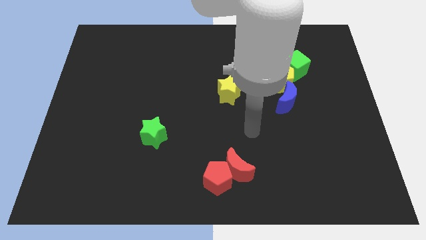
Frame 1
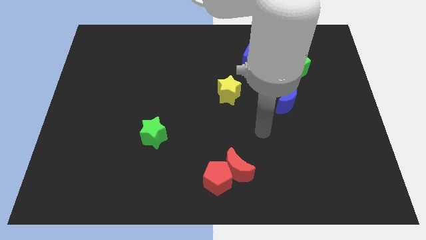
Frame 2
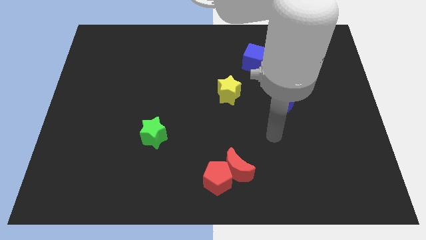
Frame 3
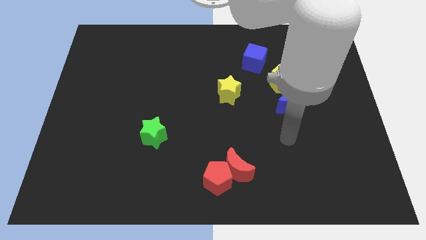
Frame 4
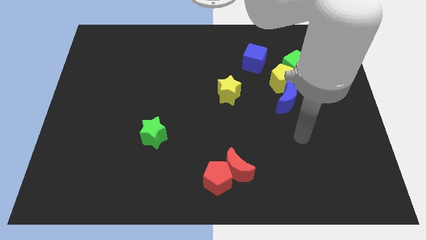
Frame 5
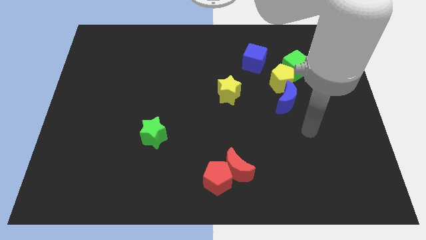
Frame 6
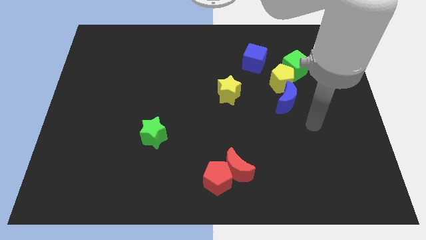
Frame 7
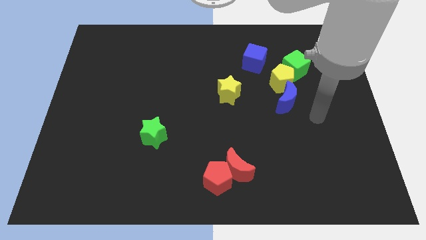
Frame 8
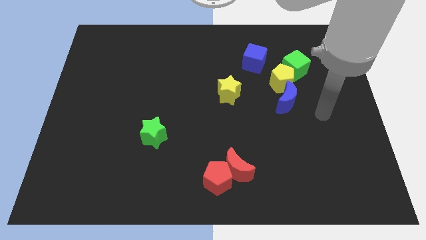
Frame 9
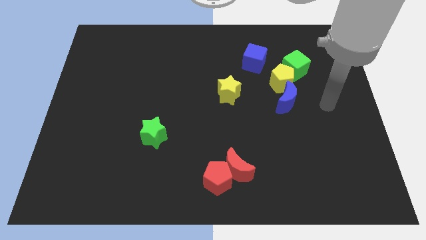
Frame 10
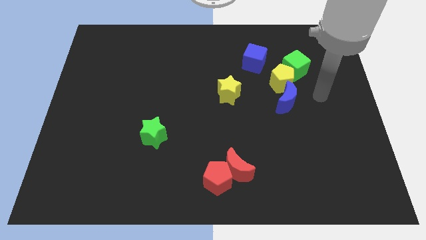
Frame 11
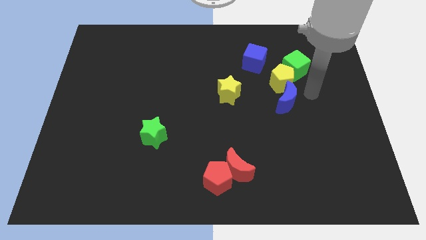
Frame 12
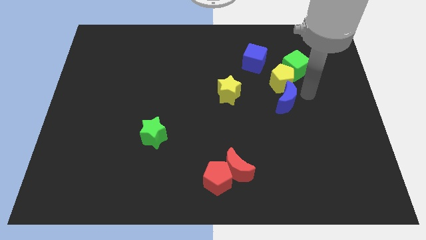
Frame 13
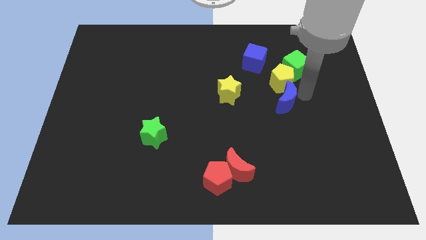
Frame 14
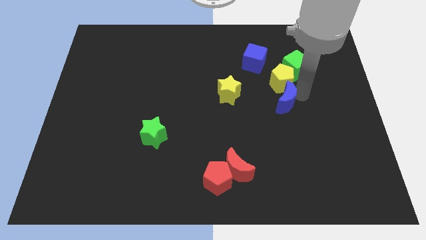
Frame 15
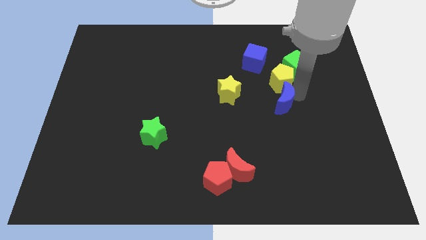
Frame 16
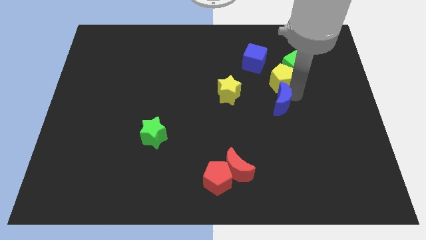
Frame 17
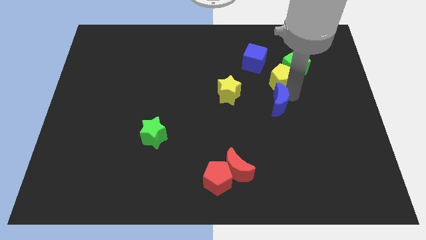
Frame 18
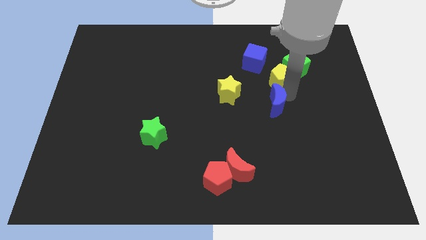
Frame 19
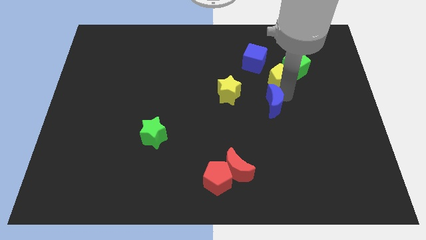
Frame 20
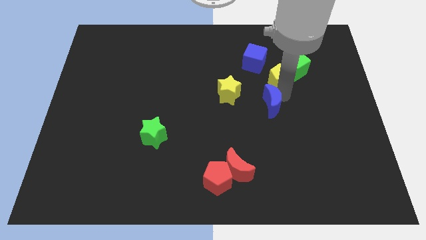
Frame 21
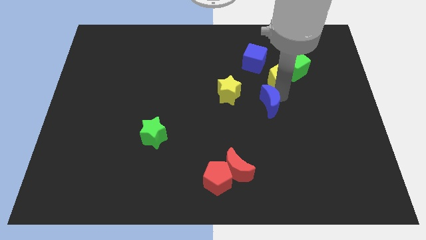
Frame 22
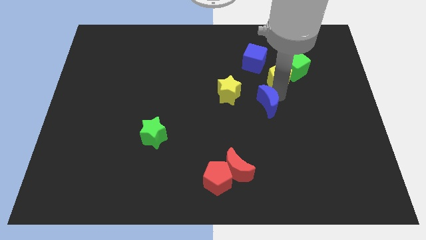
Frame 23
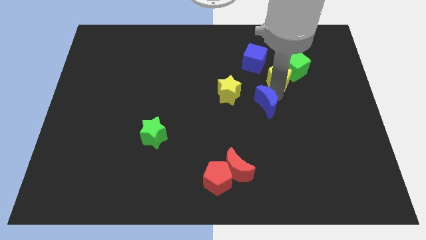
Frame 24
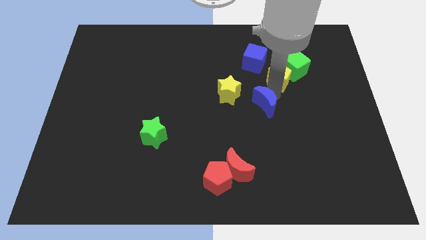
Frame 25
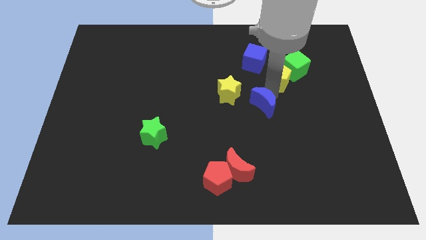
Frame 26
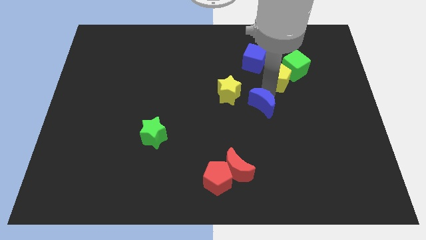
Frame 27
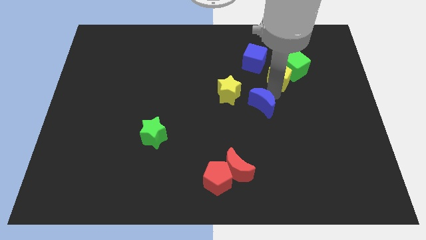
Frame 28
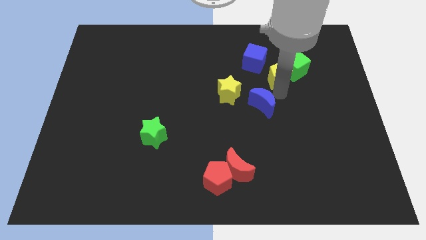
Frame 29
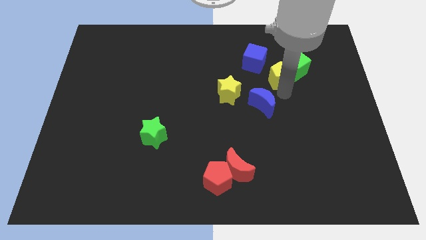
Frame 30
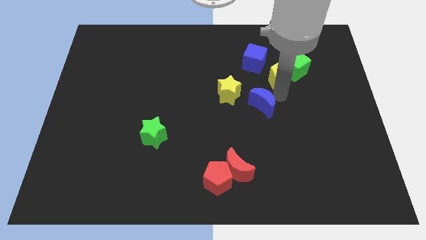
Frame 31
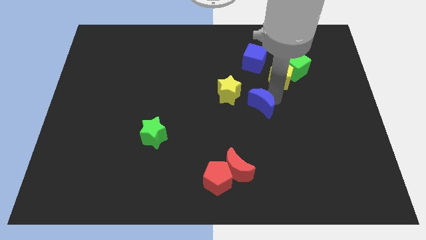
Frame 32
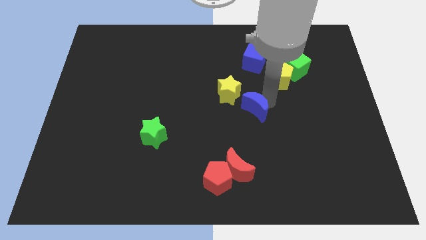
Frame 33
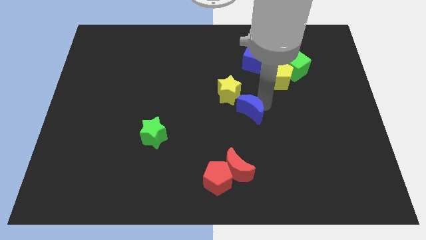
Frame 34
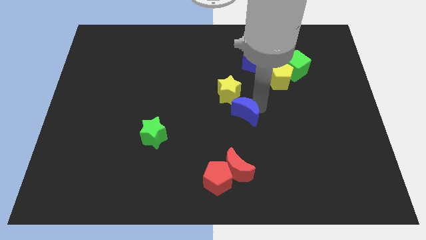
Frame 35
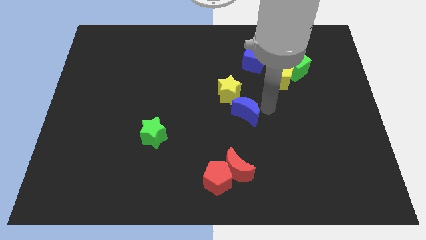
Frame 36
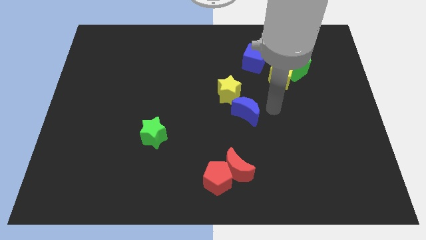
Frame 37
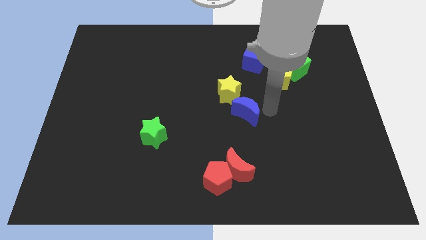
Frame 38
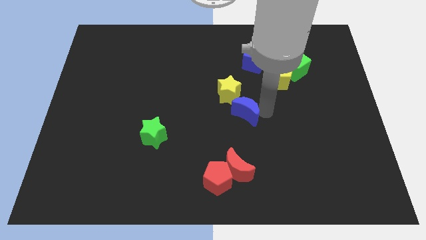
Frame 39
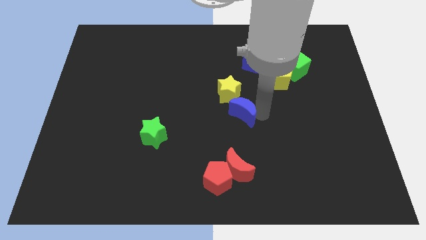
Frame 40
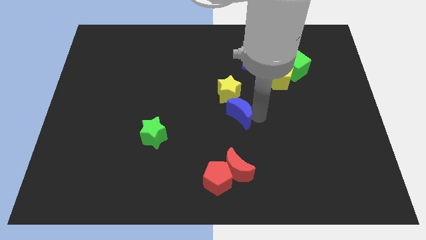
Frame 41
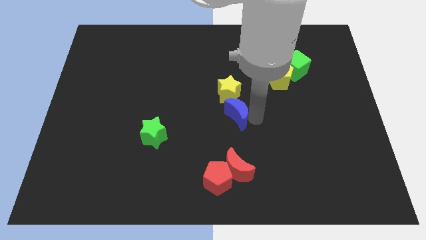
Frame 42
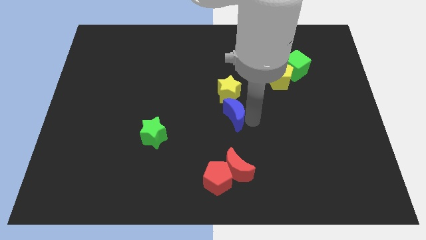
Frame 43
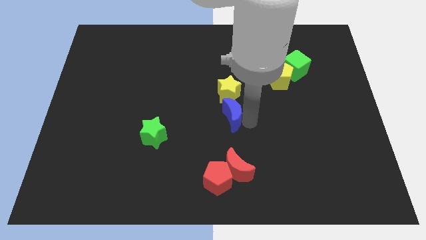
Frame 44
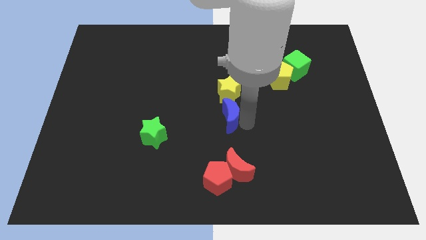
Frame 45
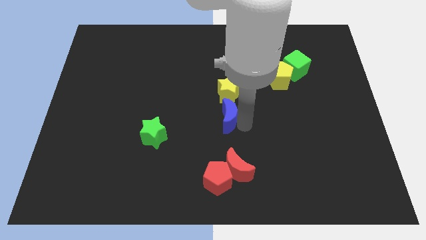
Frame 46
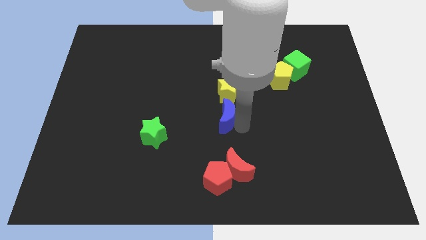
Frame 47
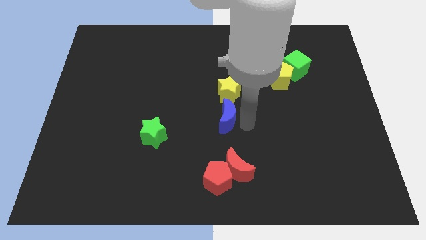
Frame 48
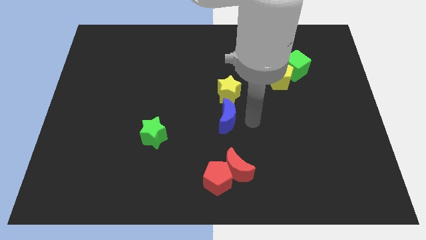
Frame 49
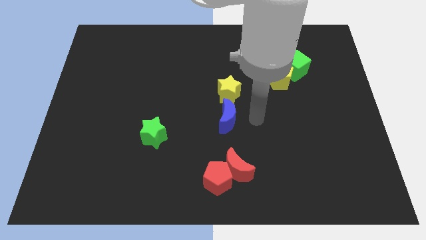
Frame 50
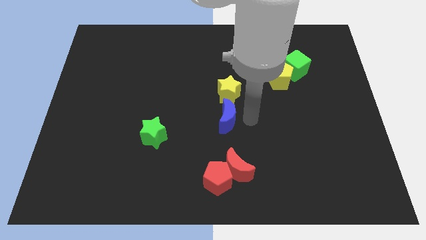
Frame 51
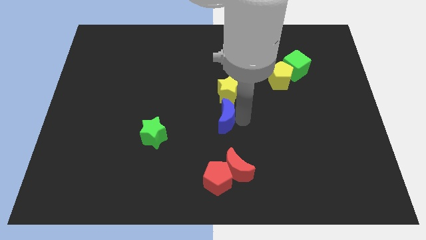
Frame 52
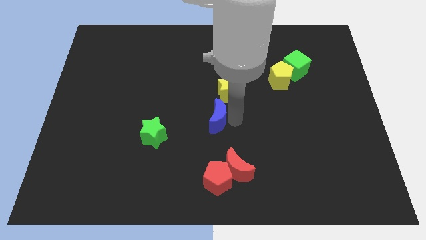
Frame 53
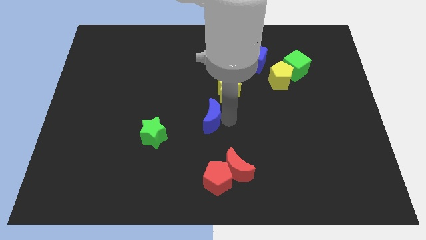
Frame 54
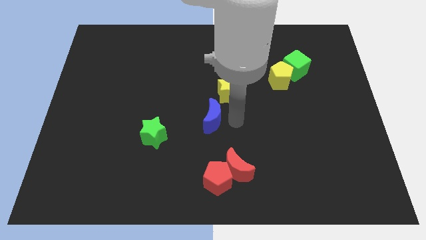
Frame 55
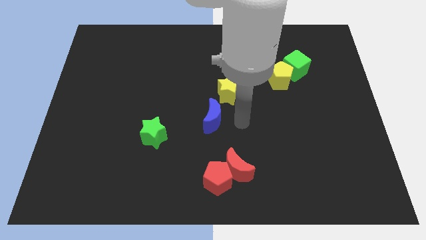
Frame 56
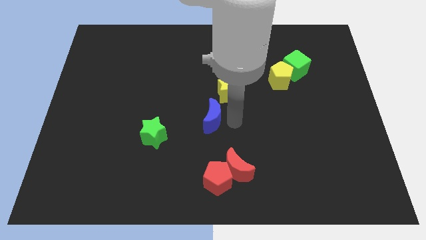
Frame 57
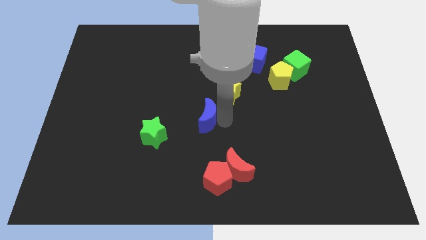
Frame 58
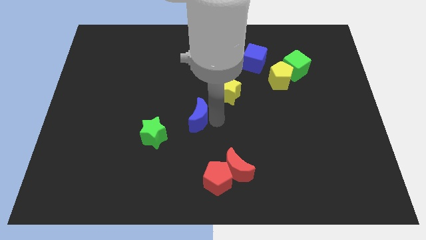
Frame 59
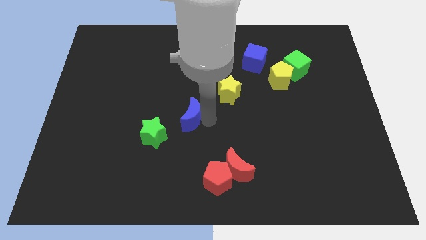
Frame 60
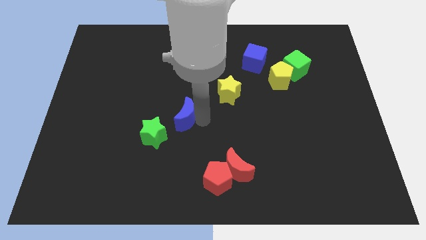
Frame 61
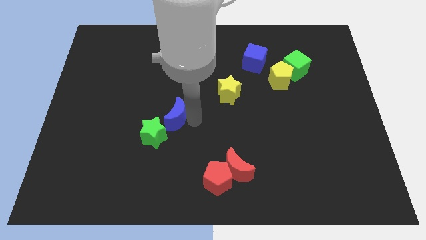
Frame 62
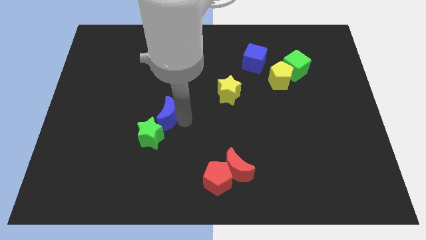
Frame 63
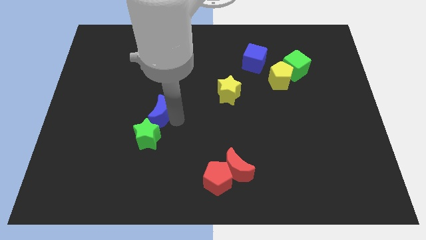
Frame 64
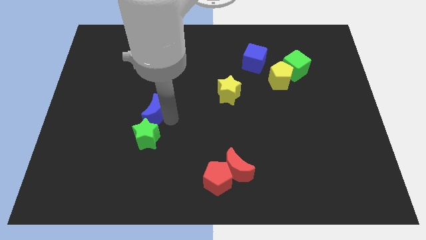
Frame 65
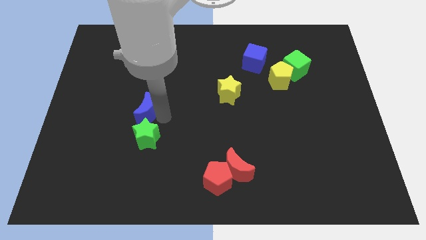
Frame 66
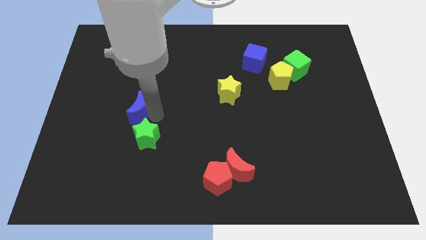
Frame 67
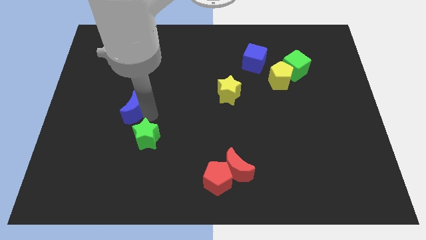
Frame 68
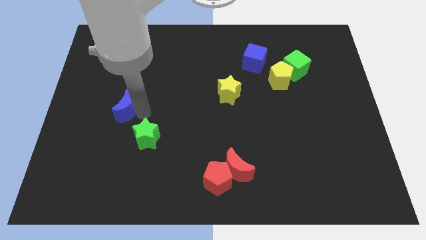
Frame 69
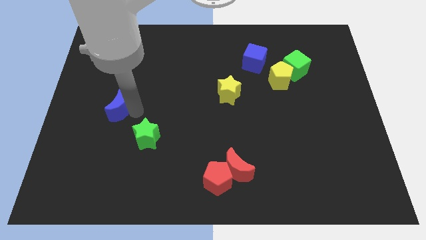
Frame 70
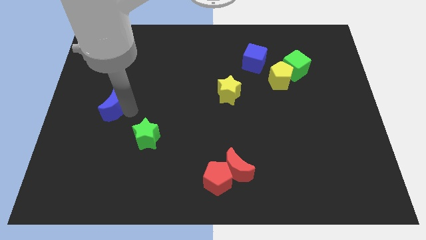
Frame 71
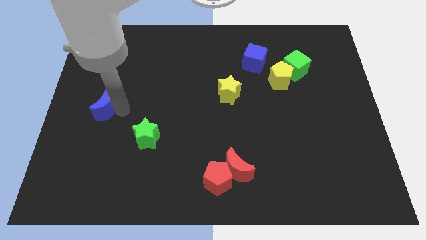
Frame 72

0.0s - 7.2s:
move the blue moon to the left side of the board
